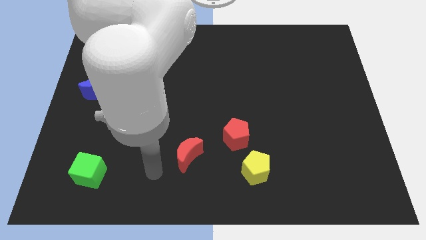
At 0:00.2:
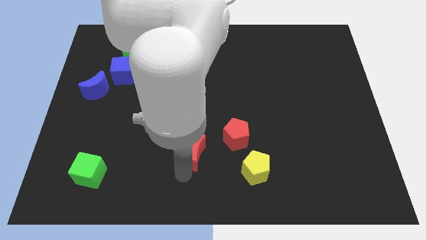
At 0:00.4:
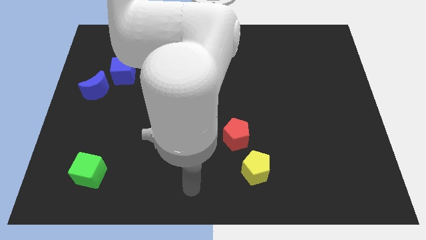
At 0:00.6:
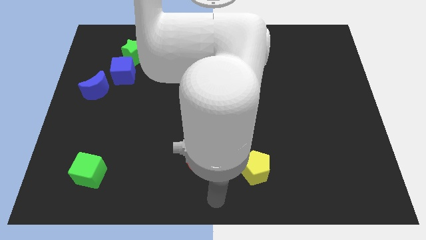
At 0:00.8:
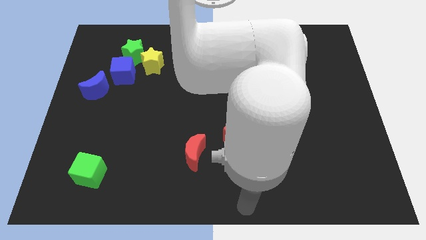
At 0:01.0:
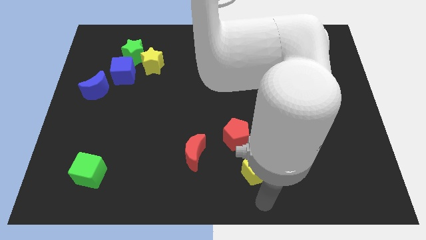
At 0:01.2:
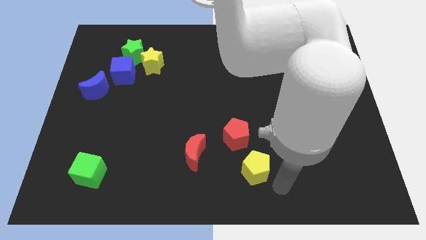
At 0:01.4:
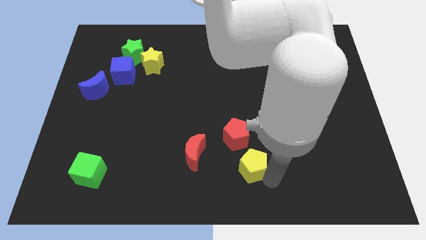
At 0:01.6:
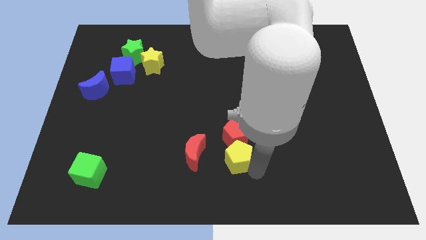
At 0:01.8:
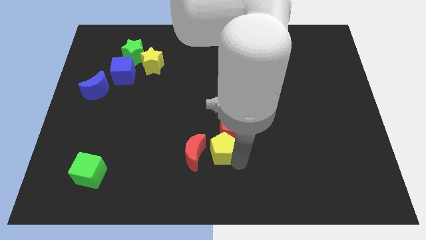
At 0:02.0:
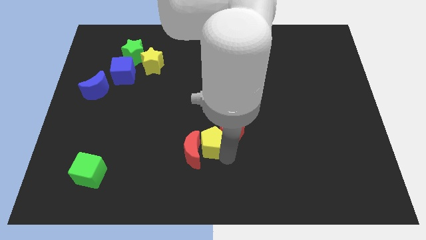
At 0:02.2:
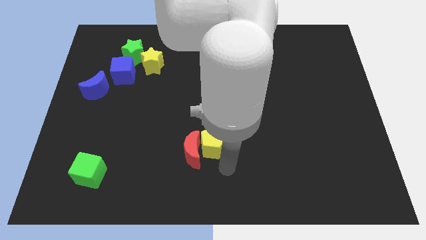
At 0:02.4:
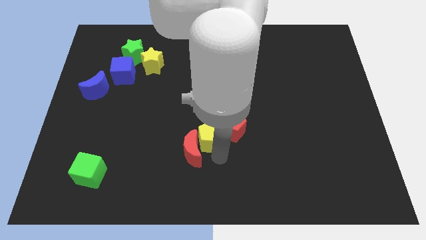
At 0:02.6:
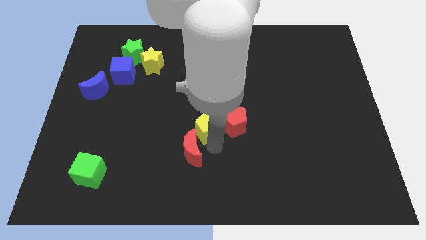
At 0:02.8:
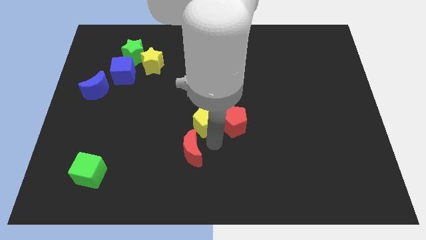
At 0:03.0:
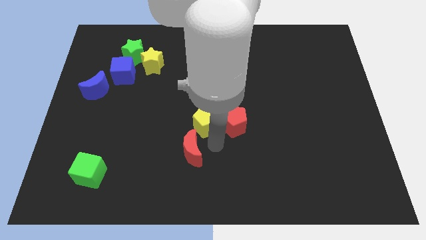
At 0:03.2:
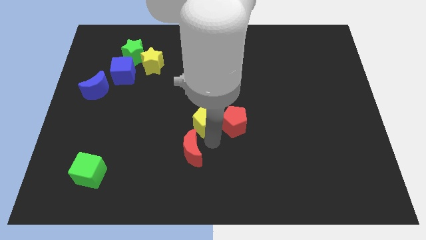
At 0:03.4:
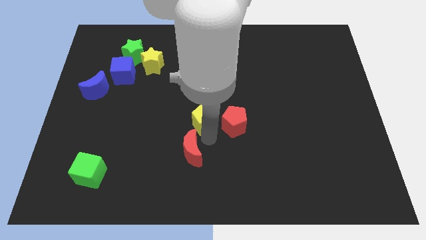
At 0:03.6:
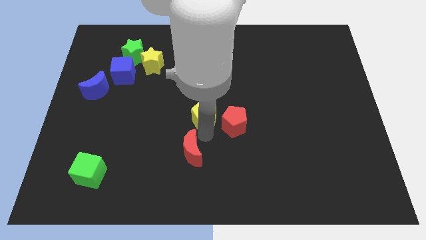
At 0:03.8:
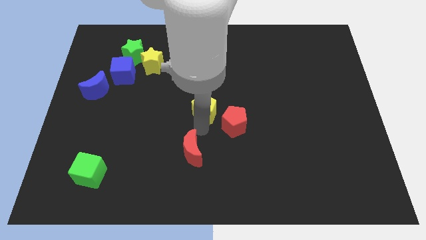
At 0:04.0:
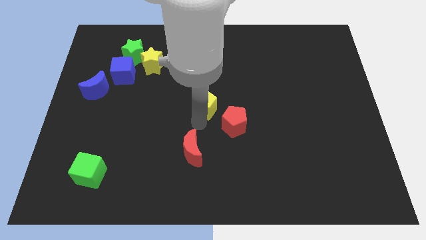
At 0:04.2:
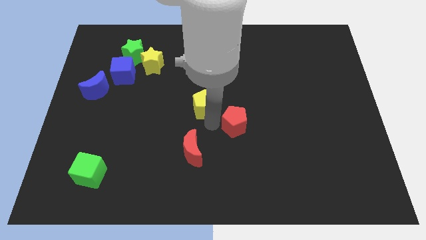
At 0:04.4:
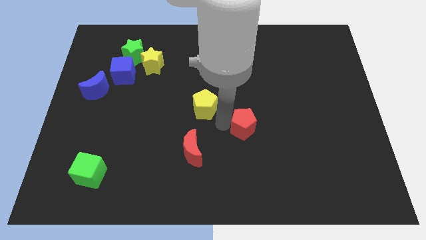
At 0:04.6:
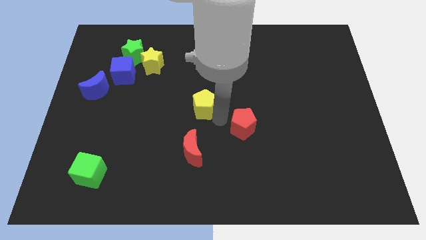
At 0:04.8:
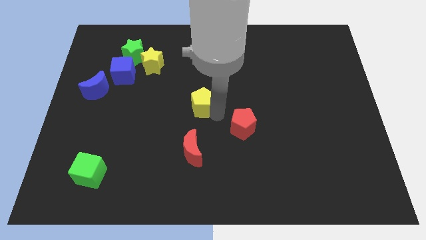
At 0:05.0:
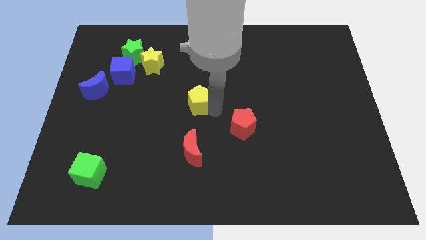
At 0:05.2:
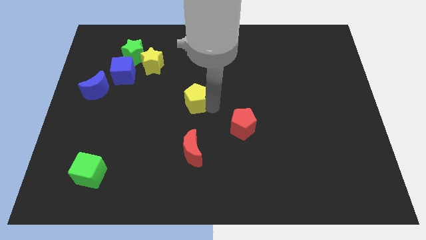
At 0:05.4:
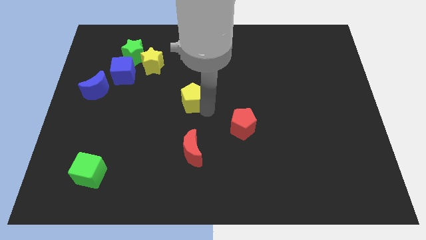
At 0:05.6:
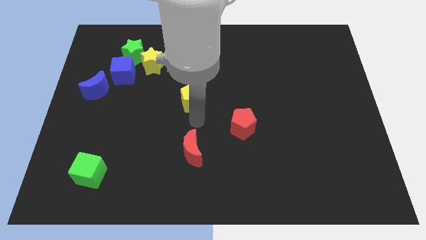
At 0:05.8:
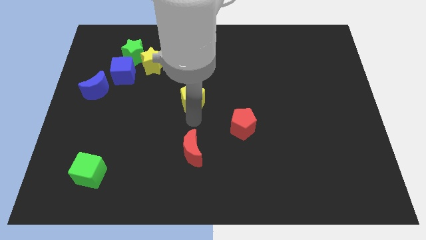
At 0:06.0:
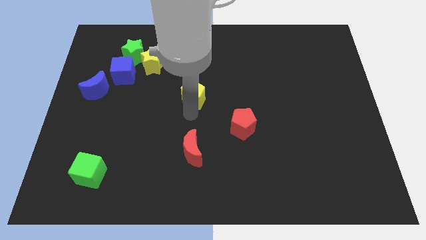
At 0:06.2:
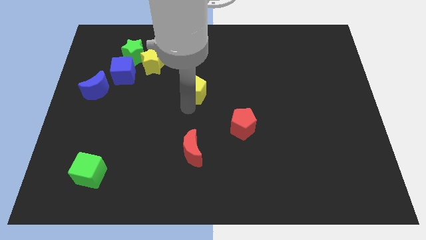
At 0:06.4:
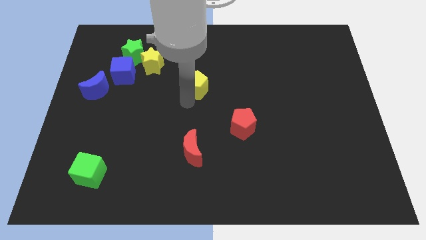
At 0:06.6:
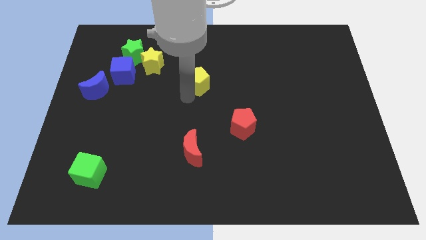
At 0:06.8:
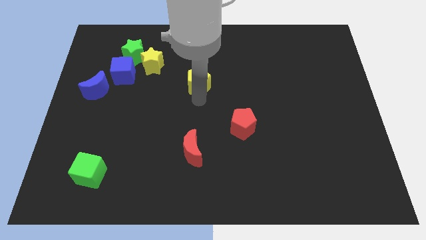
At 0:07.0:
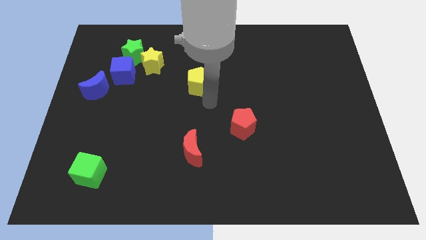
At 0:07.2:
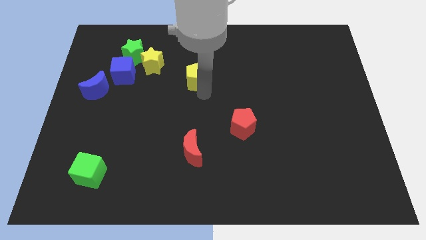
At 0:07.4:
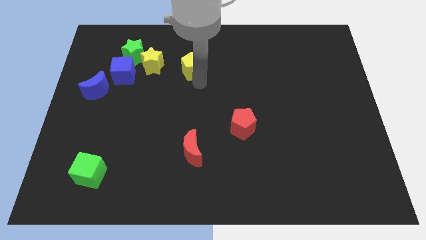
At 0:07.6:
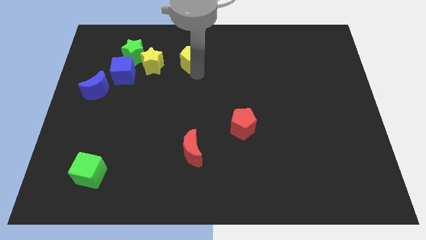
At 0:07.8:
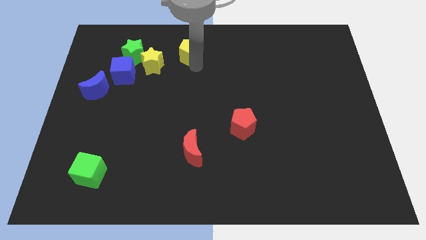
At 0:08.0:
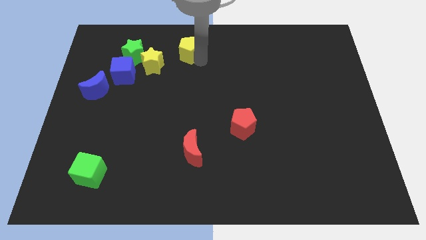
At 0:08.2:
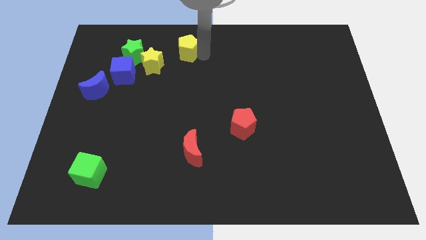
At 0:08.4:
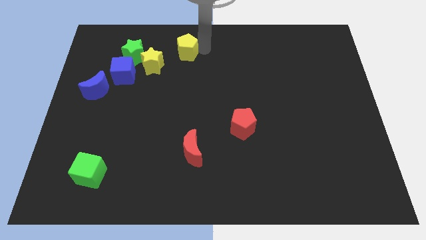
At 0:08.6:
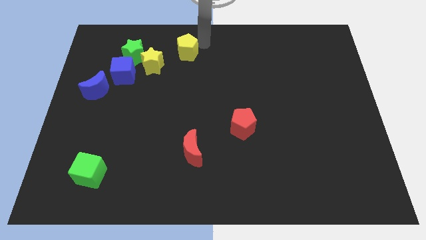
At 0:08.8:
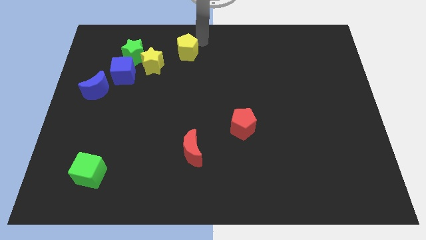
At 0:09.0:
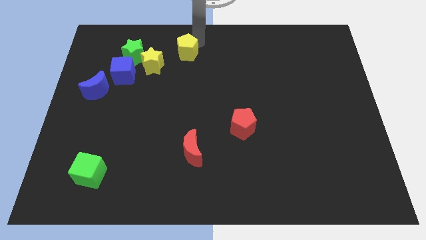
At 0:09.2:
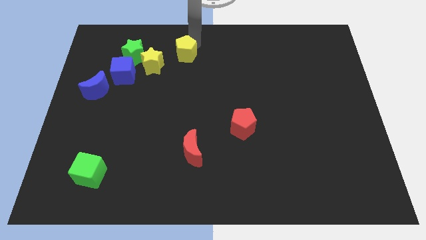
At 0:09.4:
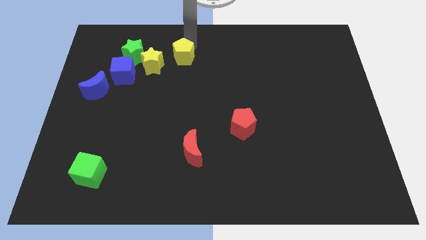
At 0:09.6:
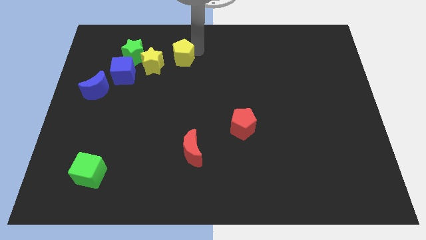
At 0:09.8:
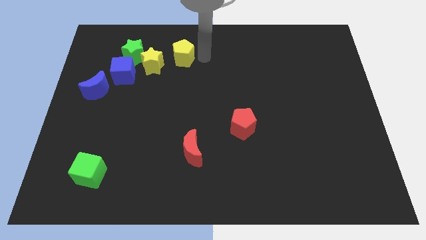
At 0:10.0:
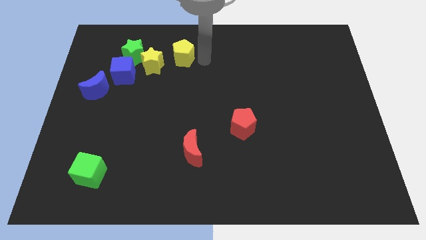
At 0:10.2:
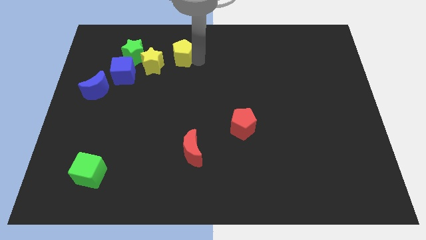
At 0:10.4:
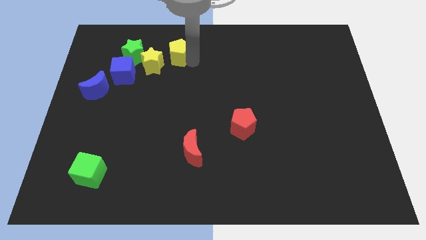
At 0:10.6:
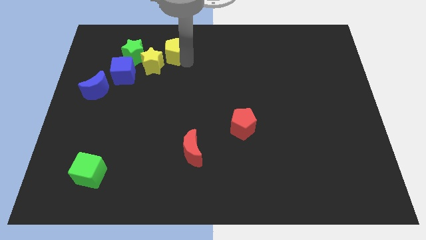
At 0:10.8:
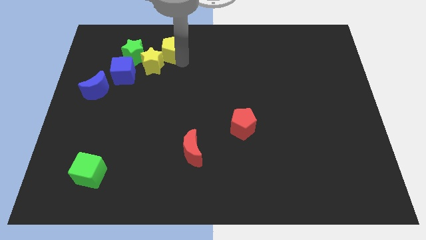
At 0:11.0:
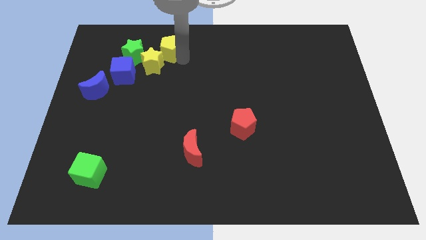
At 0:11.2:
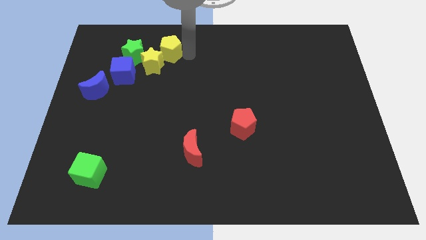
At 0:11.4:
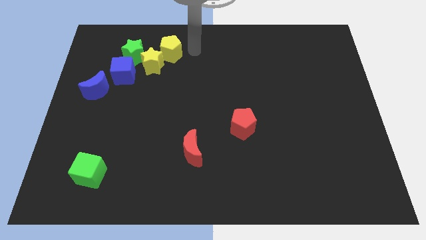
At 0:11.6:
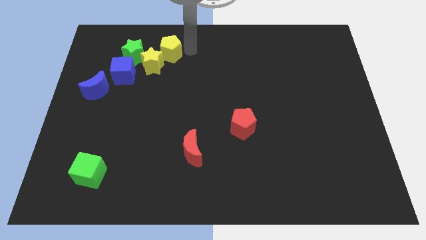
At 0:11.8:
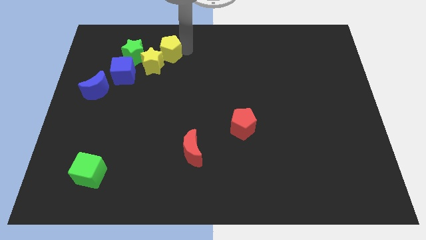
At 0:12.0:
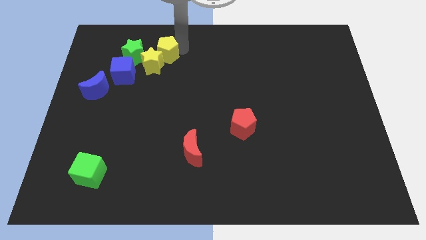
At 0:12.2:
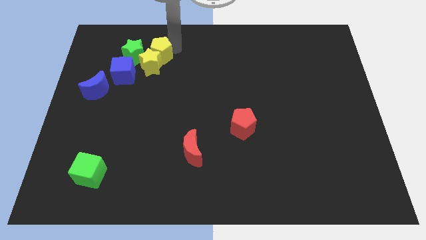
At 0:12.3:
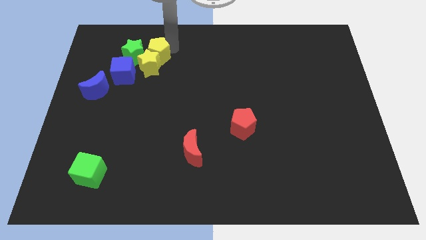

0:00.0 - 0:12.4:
slide the yellow pentagon close to the green star
